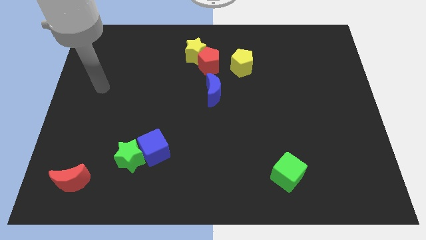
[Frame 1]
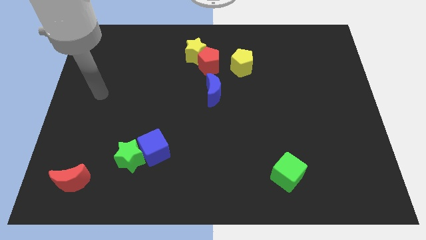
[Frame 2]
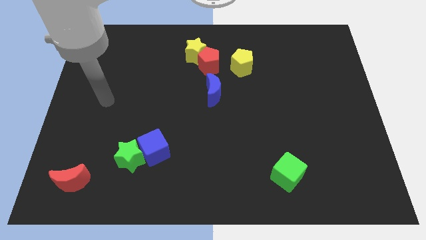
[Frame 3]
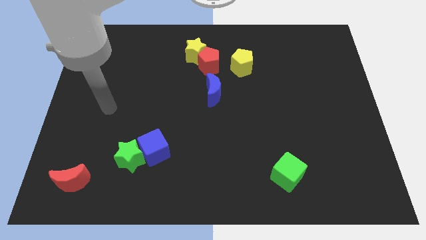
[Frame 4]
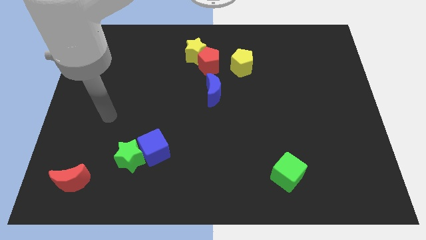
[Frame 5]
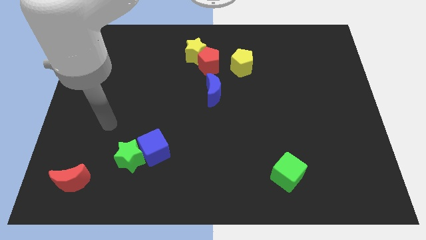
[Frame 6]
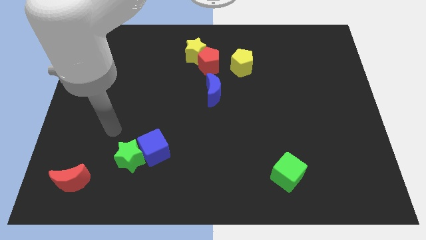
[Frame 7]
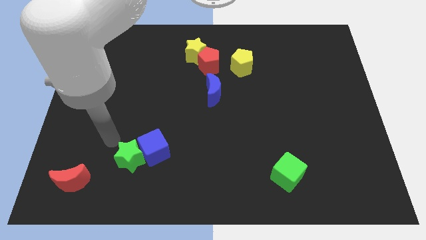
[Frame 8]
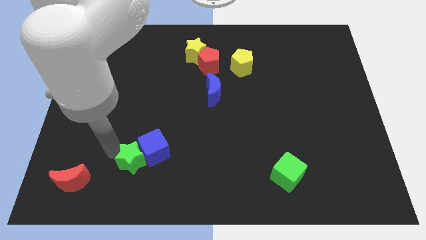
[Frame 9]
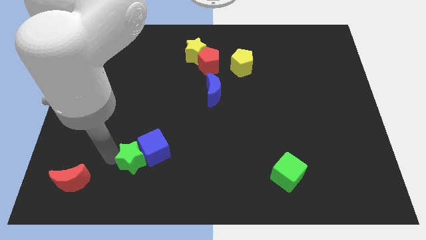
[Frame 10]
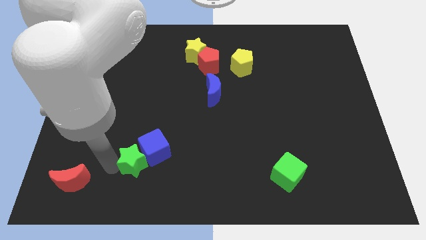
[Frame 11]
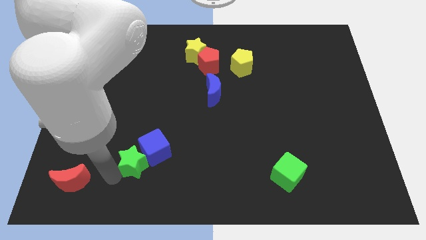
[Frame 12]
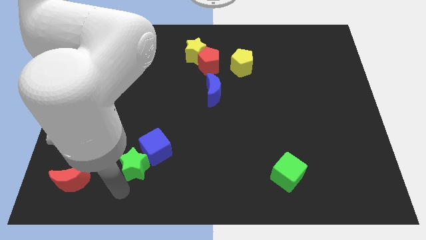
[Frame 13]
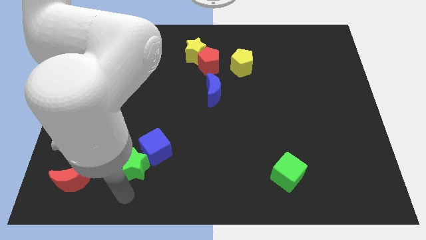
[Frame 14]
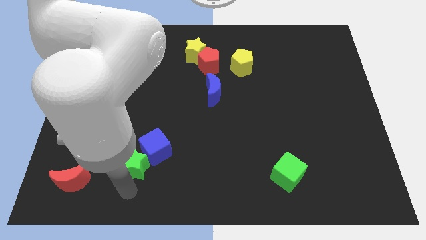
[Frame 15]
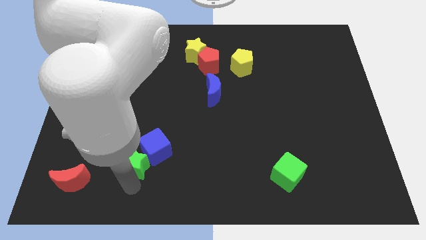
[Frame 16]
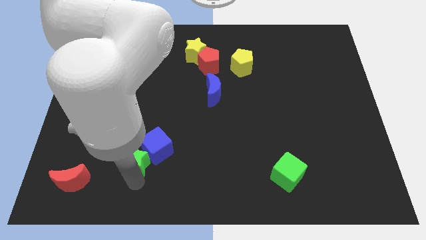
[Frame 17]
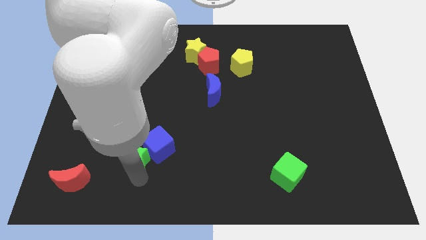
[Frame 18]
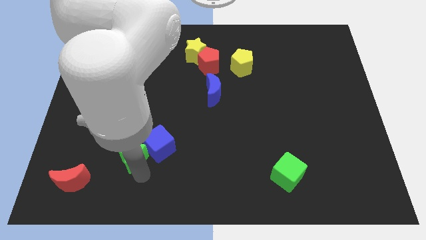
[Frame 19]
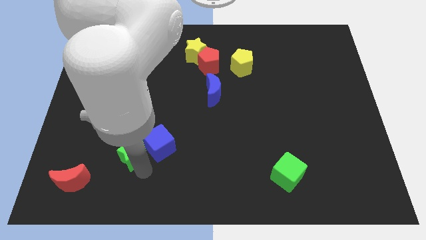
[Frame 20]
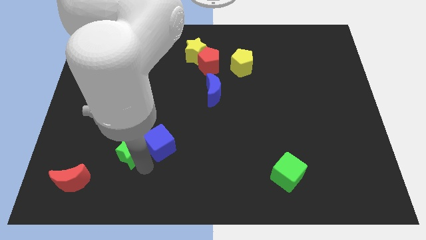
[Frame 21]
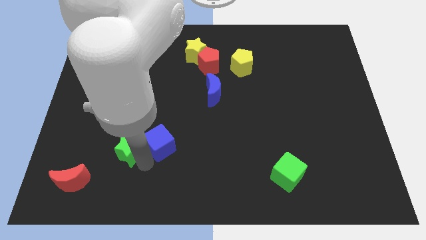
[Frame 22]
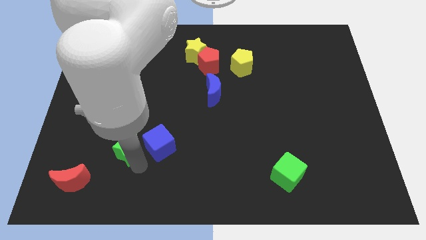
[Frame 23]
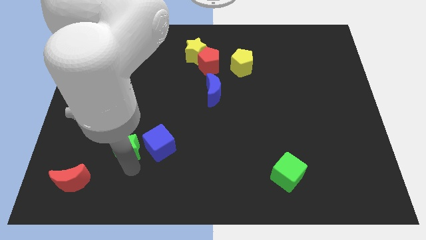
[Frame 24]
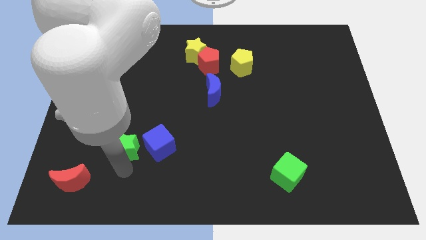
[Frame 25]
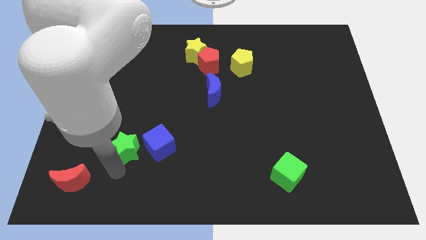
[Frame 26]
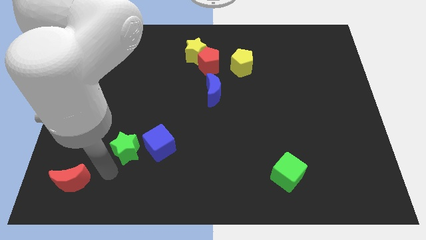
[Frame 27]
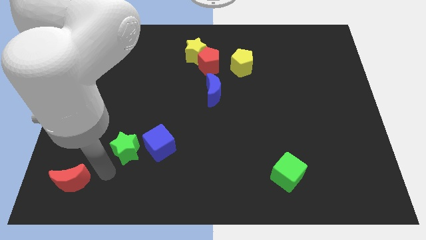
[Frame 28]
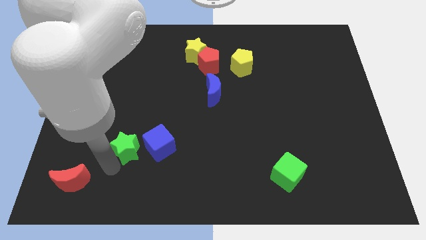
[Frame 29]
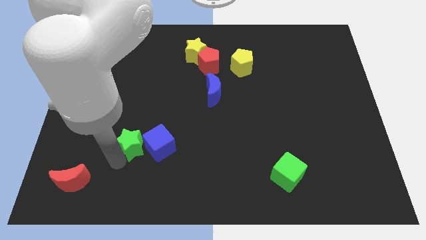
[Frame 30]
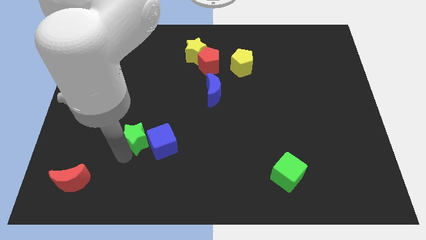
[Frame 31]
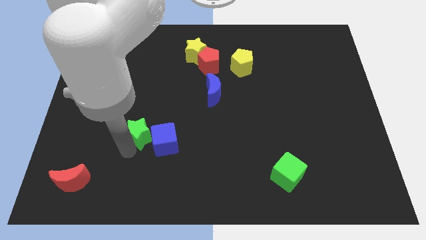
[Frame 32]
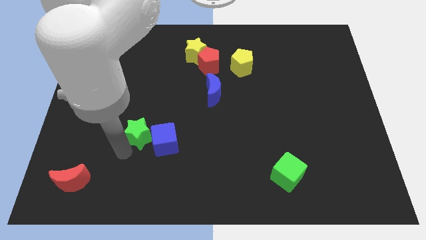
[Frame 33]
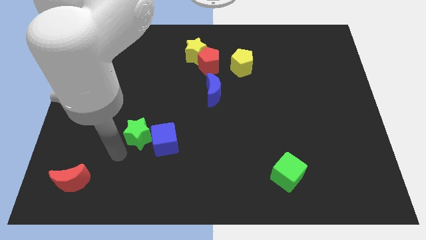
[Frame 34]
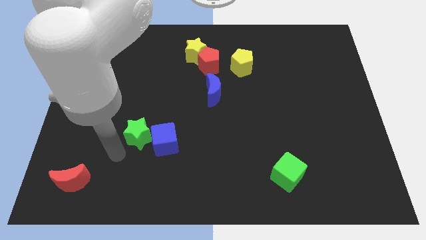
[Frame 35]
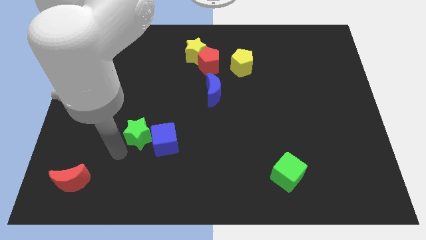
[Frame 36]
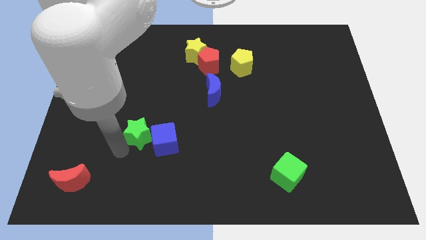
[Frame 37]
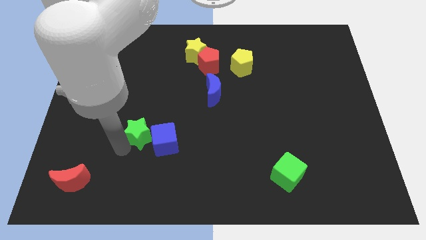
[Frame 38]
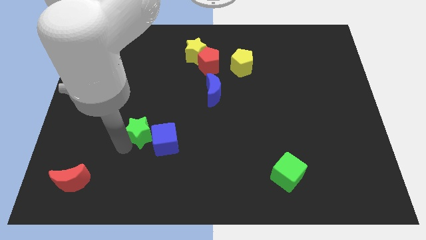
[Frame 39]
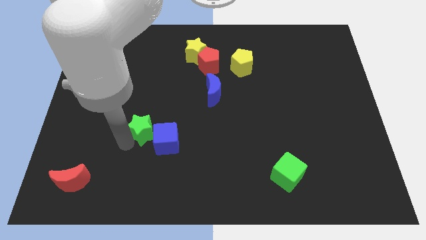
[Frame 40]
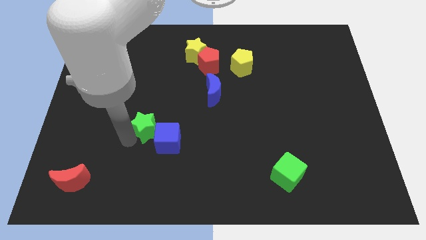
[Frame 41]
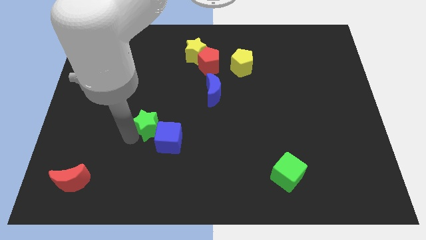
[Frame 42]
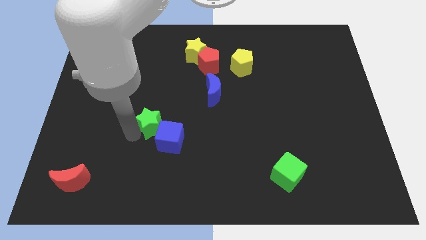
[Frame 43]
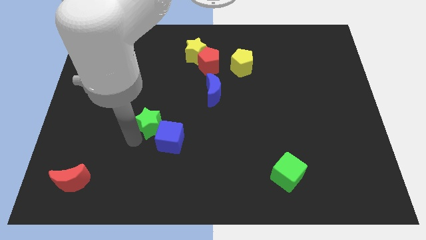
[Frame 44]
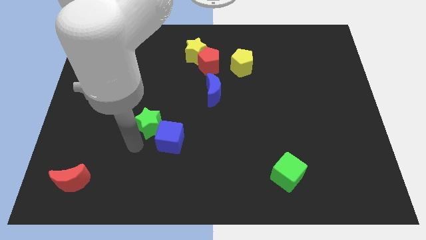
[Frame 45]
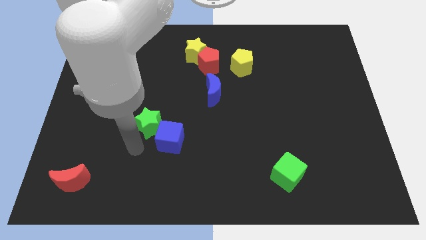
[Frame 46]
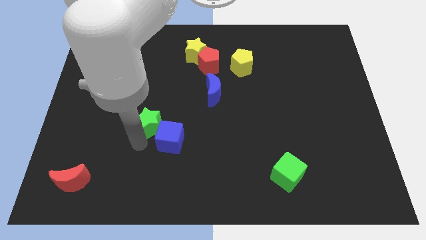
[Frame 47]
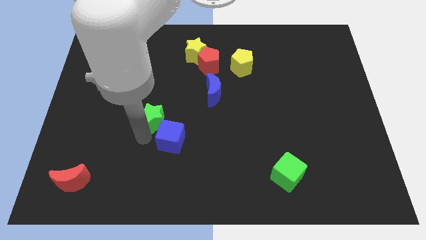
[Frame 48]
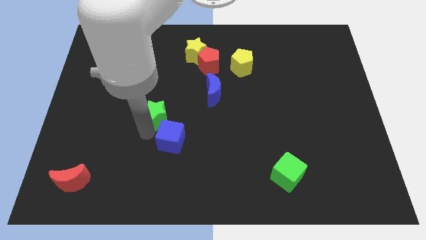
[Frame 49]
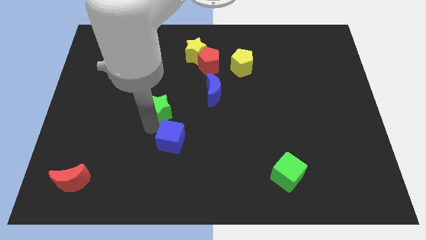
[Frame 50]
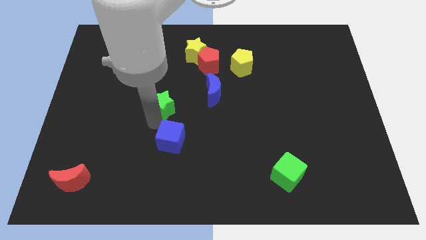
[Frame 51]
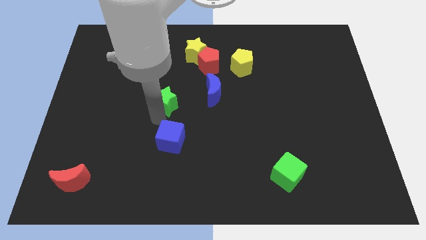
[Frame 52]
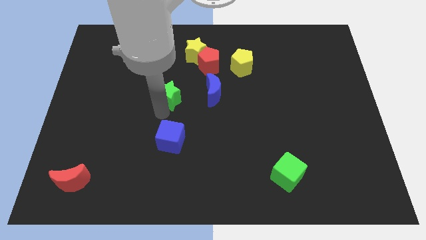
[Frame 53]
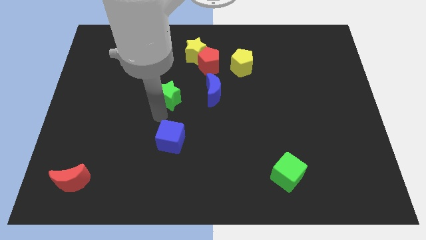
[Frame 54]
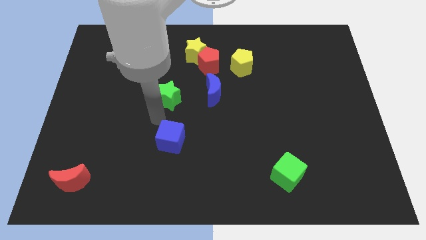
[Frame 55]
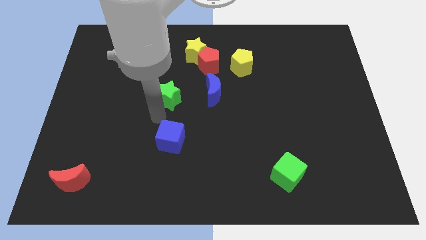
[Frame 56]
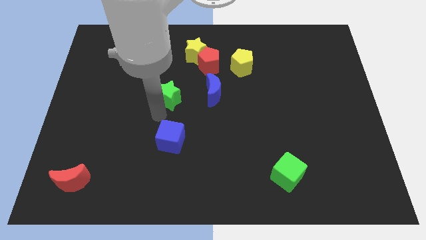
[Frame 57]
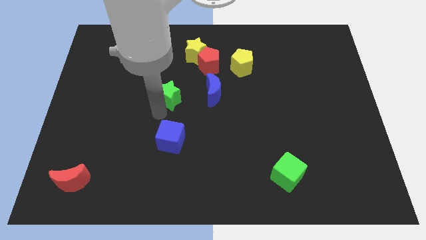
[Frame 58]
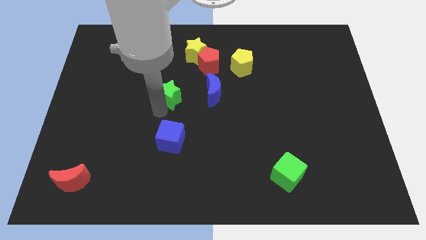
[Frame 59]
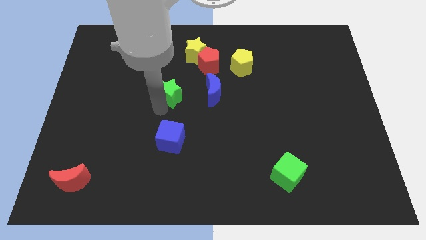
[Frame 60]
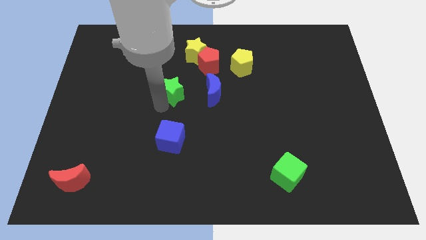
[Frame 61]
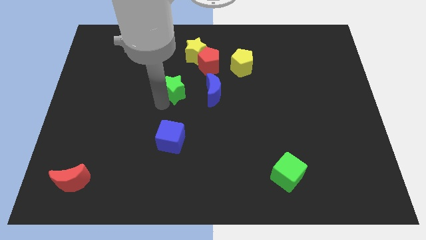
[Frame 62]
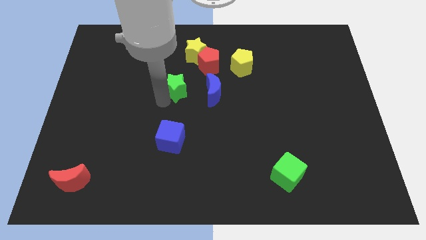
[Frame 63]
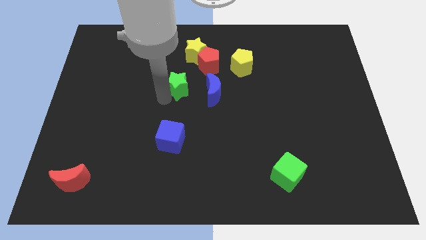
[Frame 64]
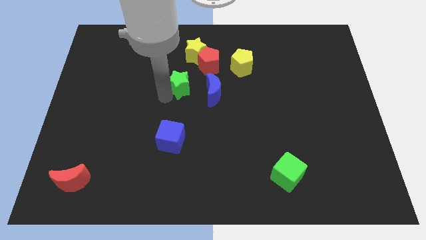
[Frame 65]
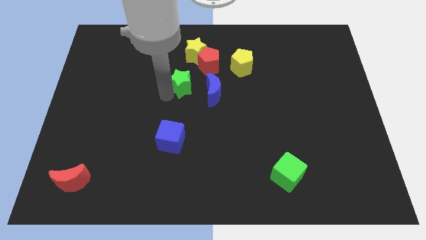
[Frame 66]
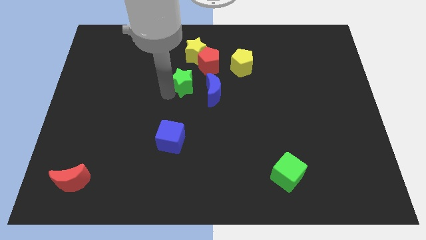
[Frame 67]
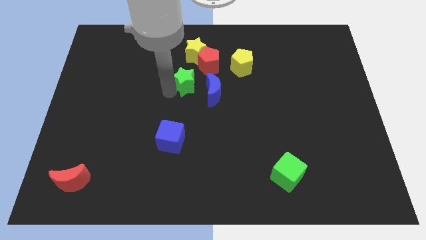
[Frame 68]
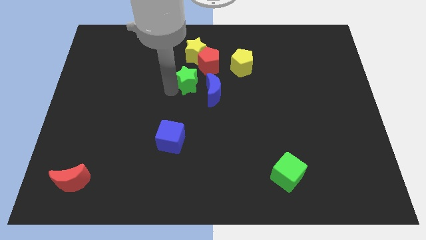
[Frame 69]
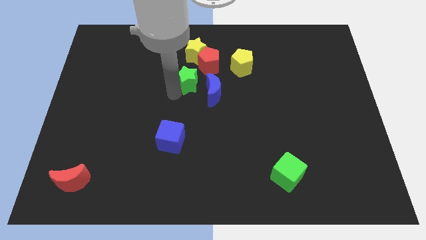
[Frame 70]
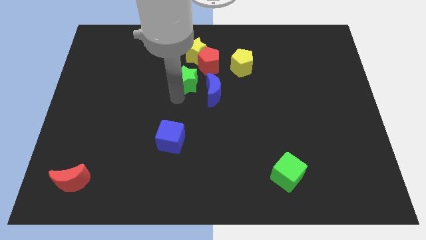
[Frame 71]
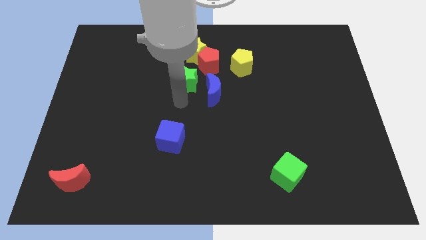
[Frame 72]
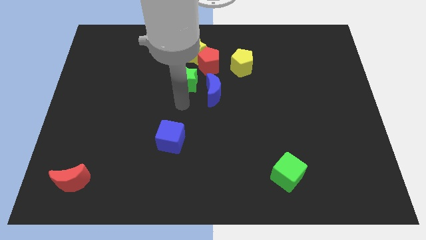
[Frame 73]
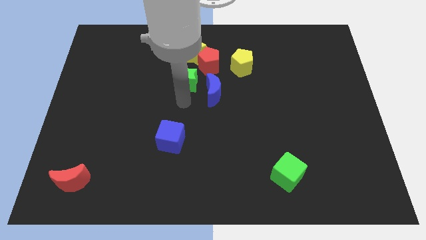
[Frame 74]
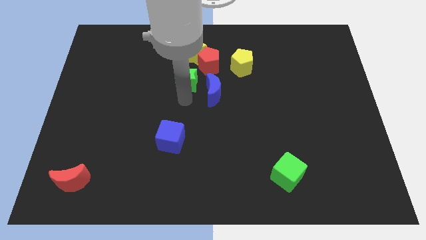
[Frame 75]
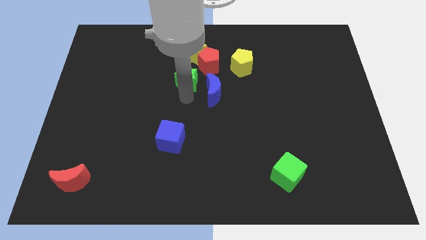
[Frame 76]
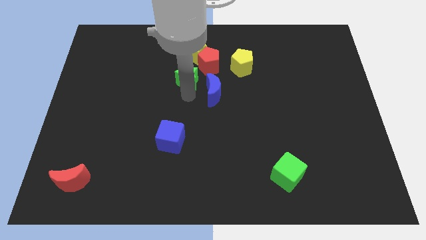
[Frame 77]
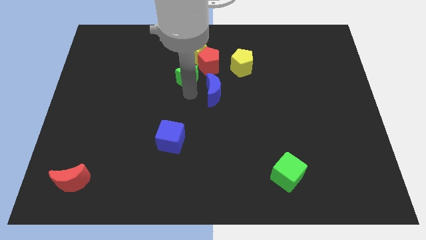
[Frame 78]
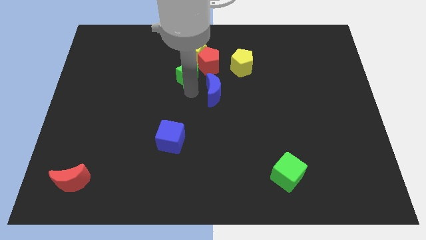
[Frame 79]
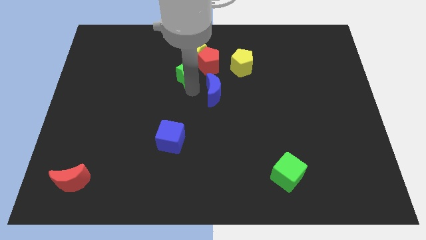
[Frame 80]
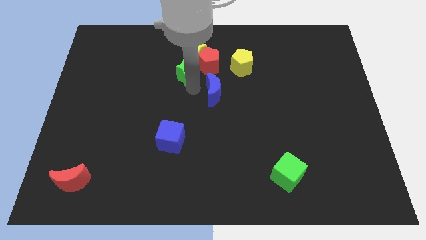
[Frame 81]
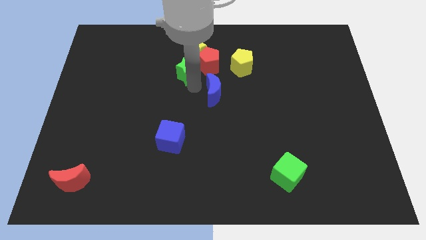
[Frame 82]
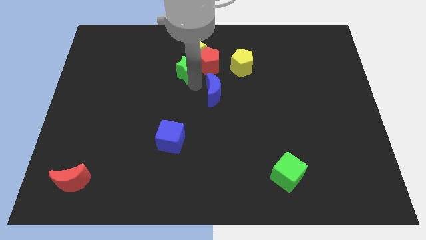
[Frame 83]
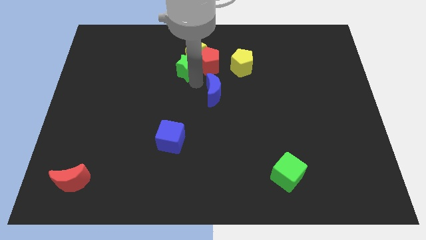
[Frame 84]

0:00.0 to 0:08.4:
push the green star to the yellow star
